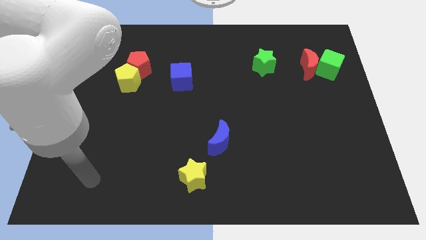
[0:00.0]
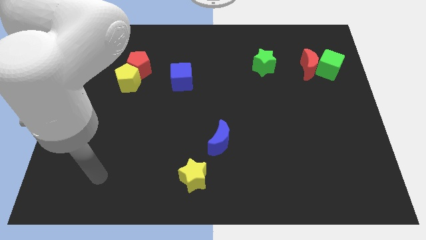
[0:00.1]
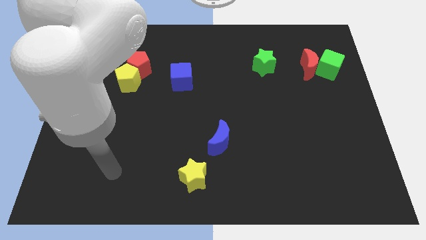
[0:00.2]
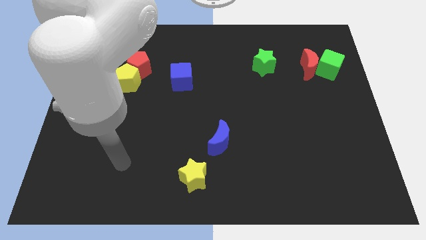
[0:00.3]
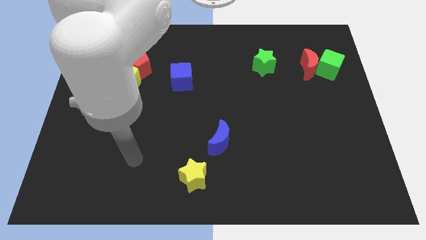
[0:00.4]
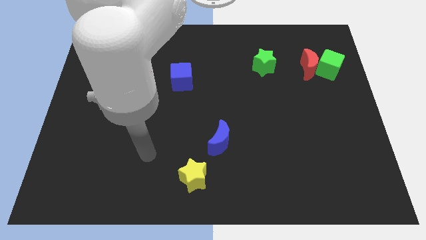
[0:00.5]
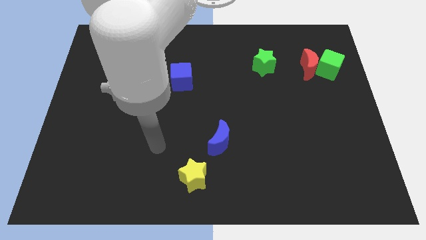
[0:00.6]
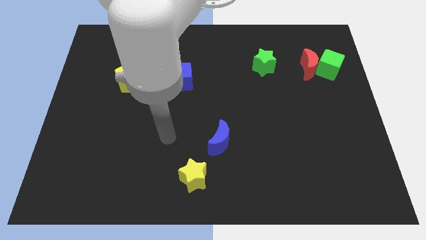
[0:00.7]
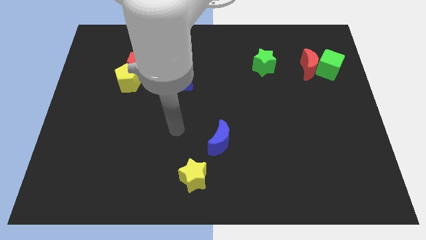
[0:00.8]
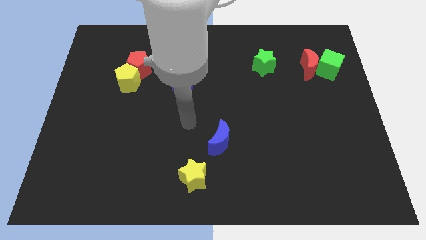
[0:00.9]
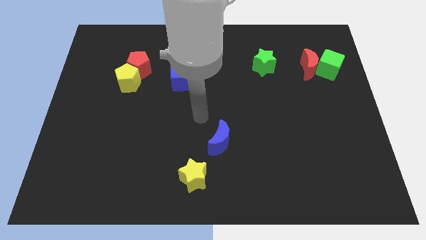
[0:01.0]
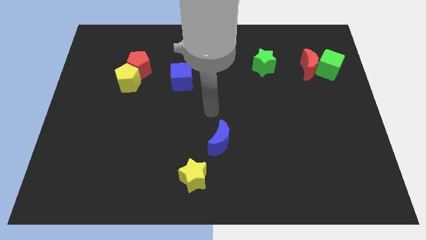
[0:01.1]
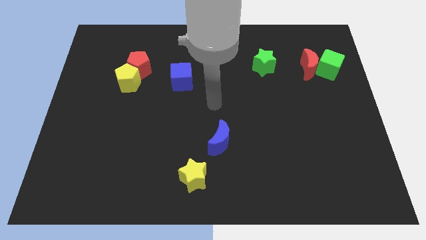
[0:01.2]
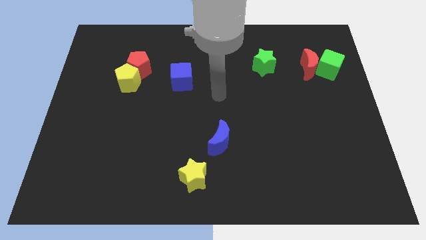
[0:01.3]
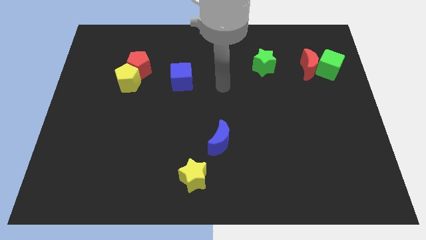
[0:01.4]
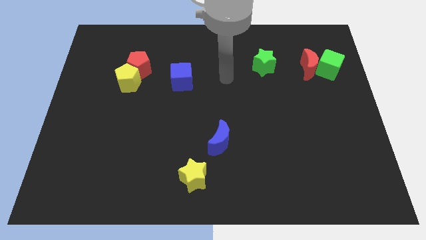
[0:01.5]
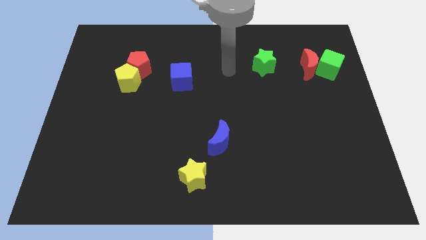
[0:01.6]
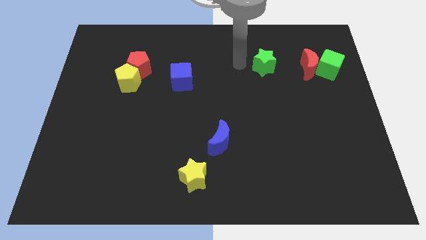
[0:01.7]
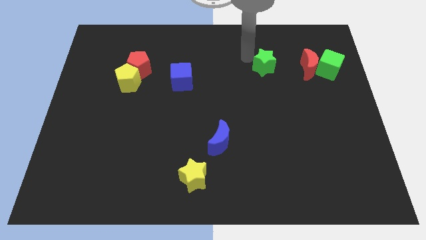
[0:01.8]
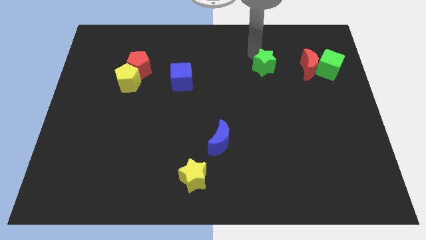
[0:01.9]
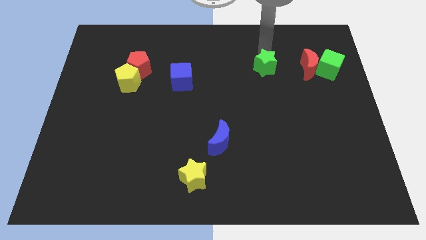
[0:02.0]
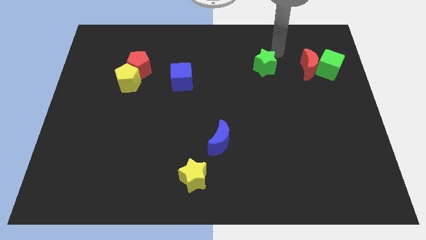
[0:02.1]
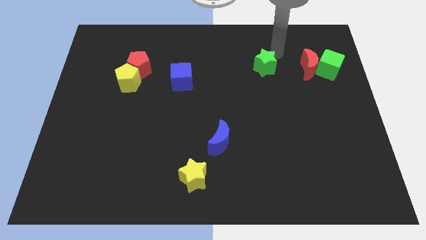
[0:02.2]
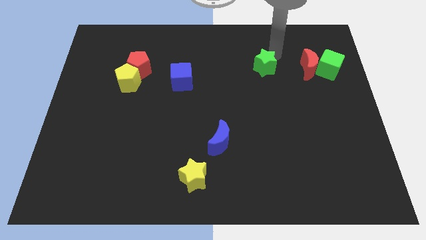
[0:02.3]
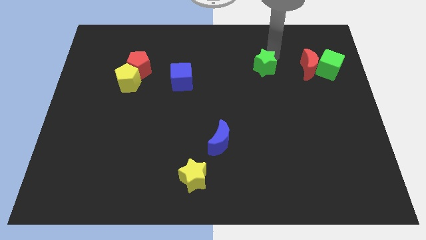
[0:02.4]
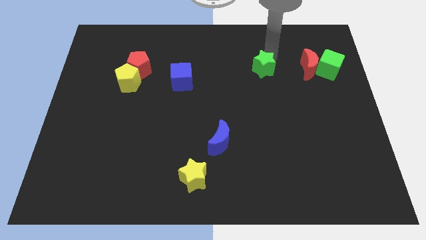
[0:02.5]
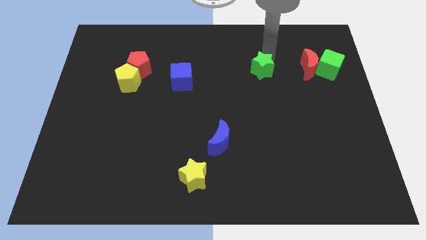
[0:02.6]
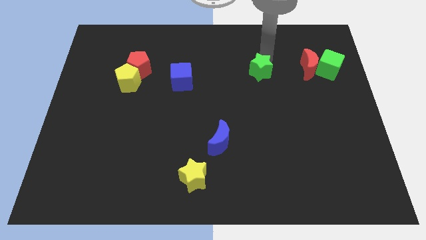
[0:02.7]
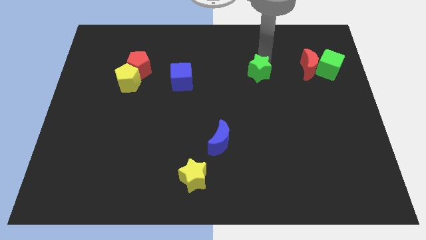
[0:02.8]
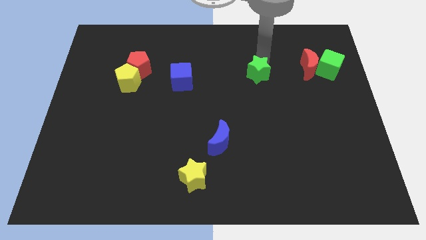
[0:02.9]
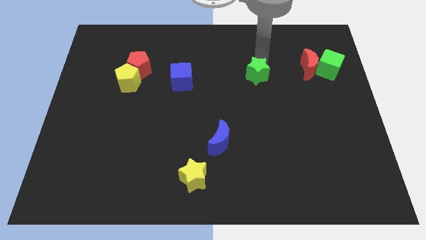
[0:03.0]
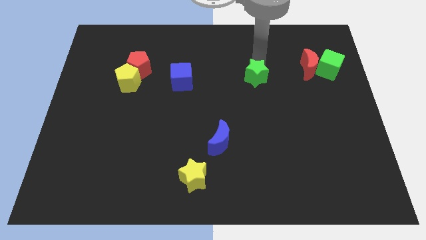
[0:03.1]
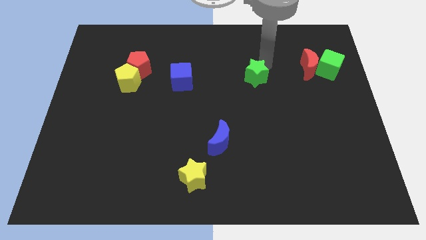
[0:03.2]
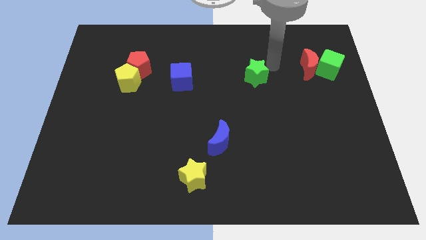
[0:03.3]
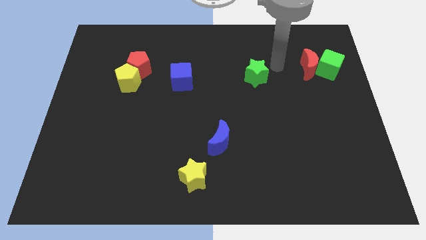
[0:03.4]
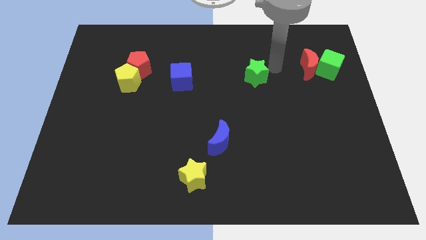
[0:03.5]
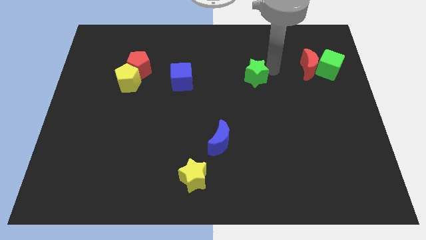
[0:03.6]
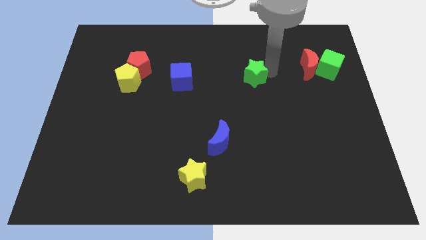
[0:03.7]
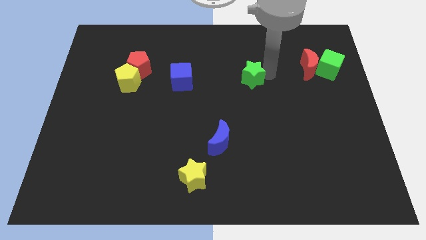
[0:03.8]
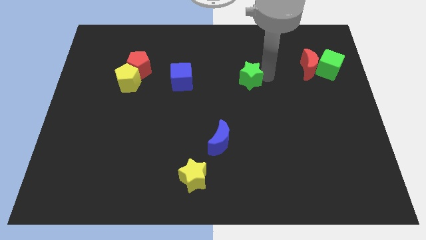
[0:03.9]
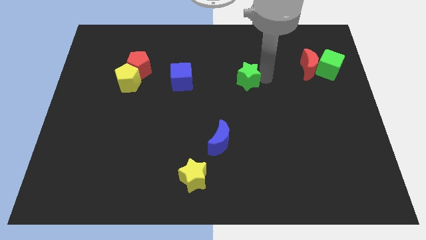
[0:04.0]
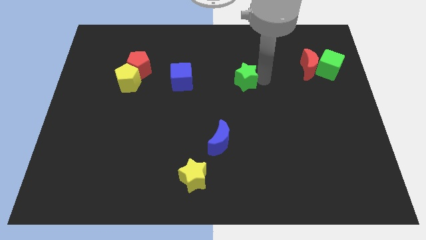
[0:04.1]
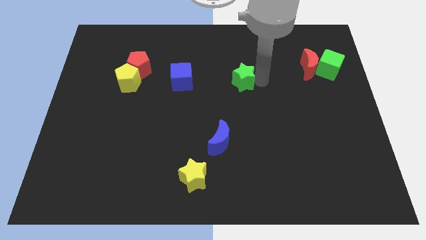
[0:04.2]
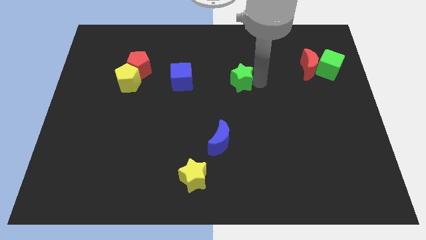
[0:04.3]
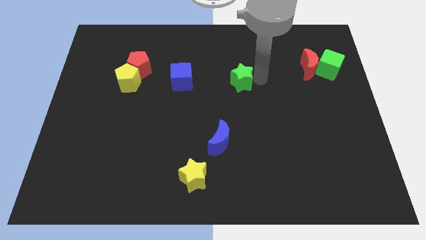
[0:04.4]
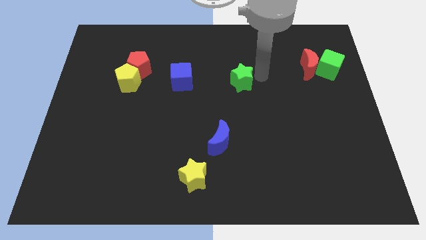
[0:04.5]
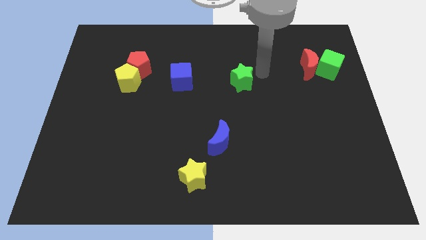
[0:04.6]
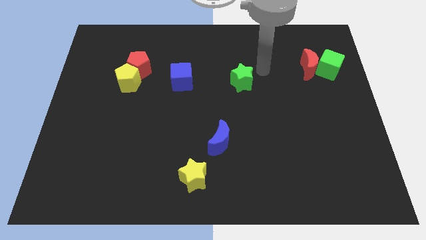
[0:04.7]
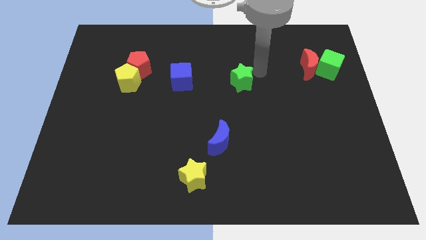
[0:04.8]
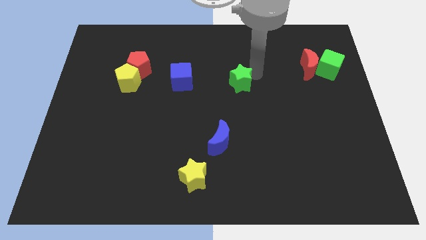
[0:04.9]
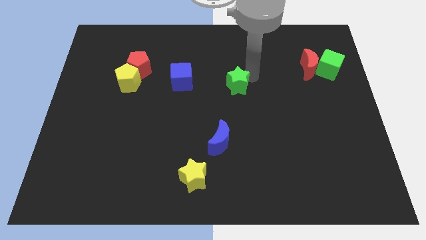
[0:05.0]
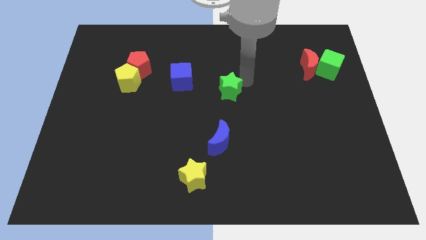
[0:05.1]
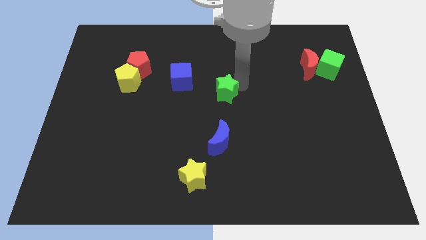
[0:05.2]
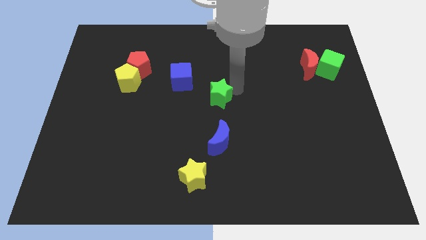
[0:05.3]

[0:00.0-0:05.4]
move the green star to the bottom right of the blue cube

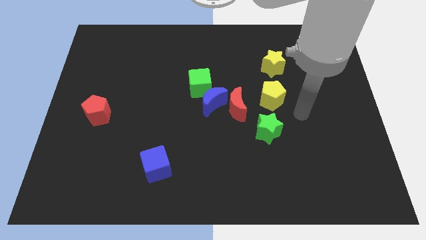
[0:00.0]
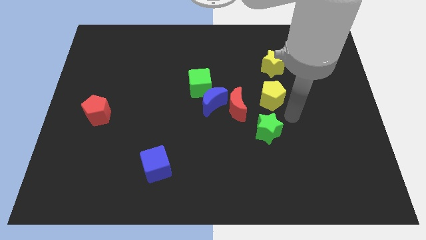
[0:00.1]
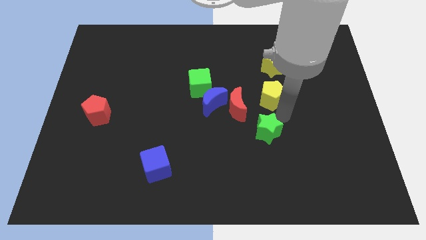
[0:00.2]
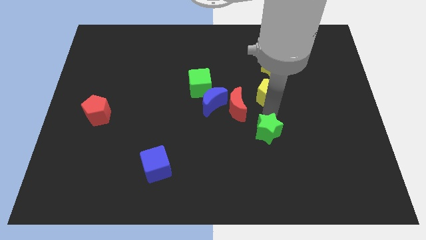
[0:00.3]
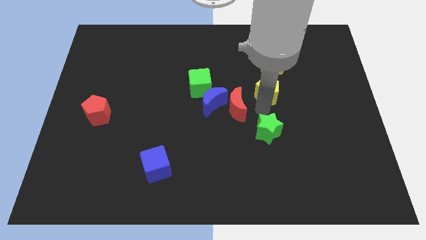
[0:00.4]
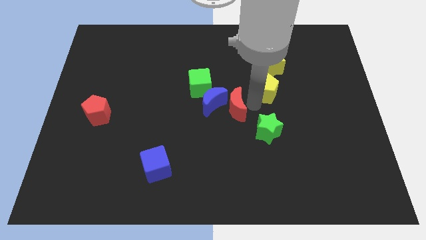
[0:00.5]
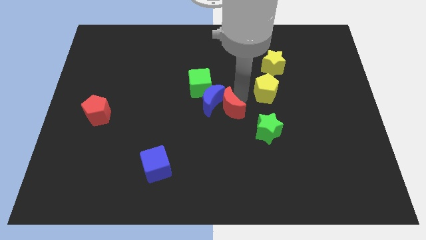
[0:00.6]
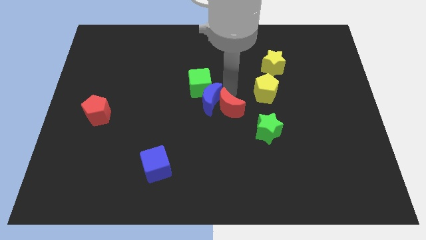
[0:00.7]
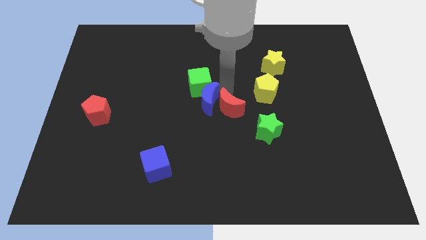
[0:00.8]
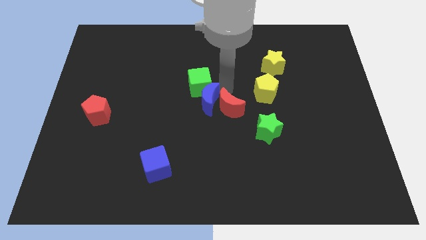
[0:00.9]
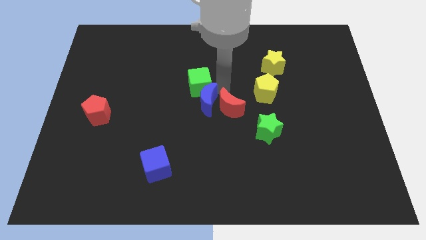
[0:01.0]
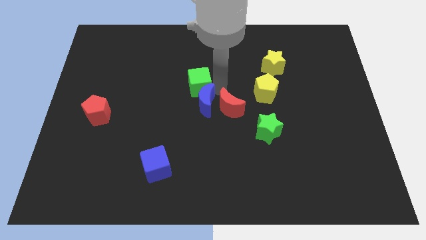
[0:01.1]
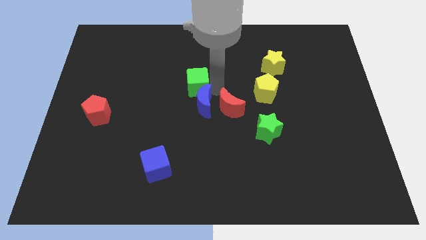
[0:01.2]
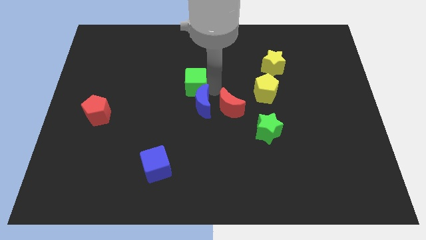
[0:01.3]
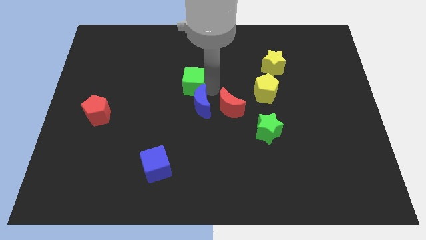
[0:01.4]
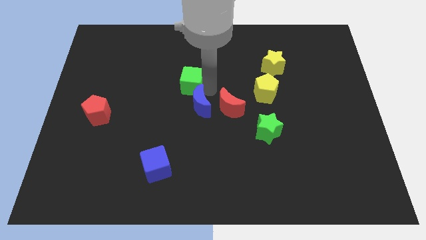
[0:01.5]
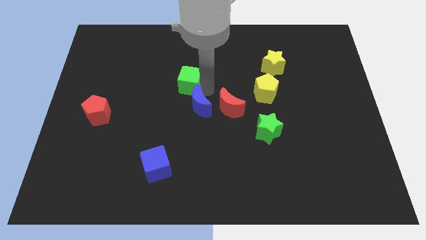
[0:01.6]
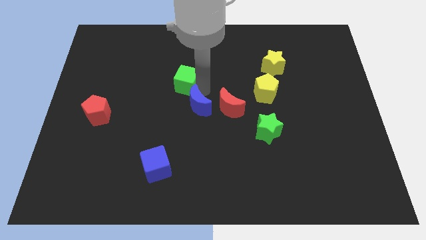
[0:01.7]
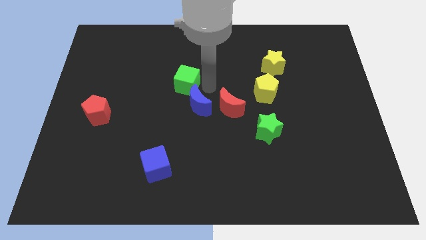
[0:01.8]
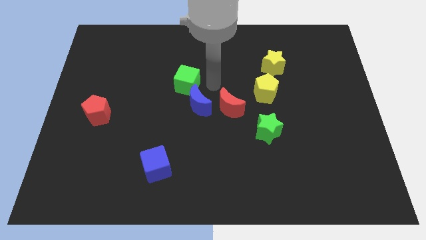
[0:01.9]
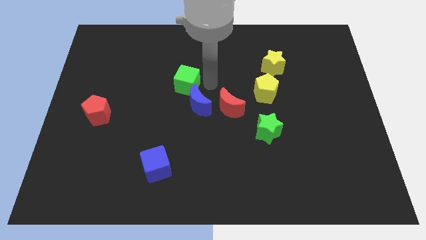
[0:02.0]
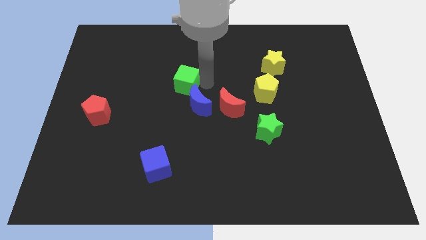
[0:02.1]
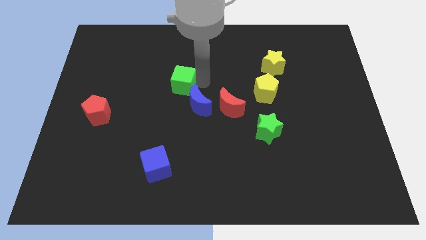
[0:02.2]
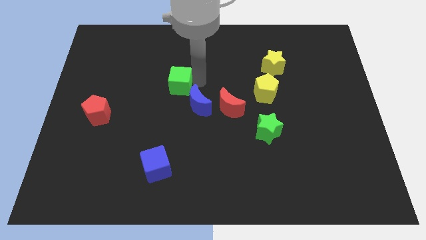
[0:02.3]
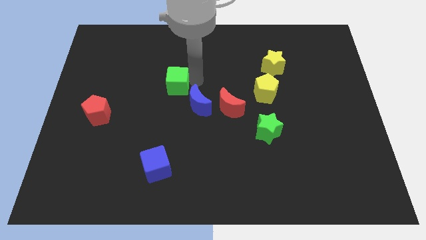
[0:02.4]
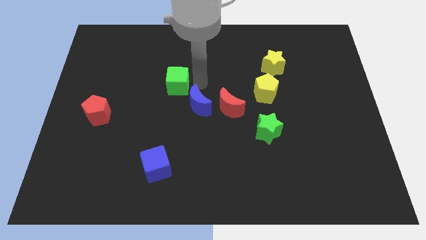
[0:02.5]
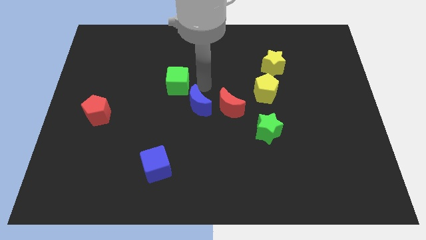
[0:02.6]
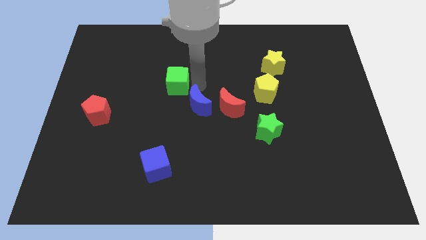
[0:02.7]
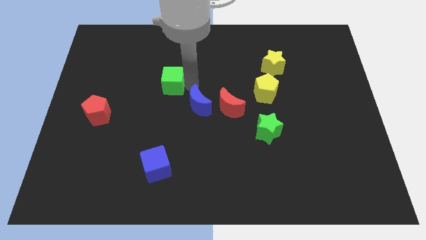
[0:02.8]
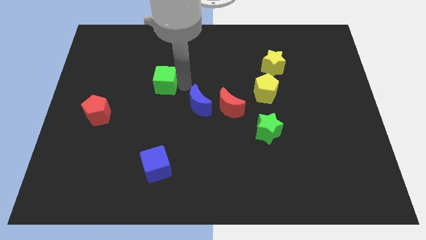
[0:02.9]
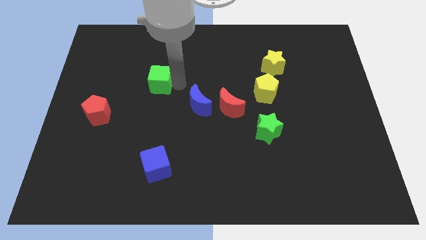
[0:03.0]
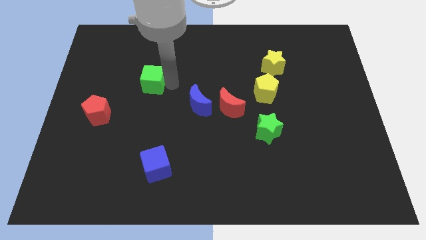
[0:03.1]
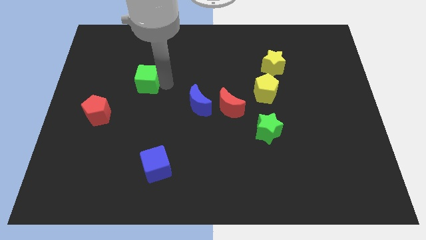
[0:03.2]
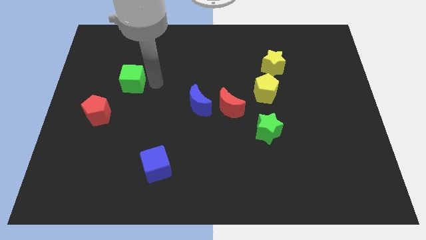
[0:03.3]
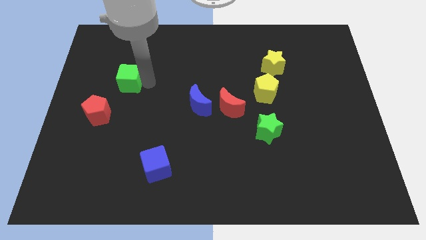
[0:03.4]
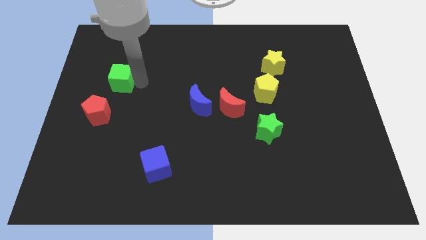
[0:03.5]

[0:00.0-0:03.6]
move the green cube to the top side of the red pentagon
